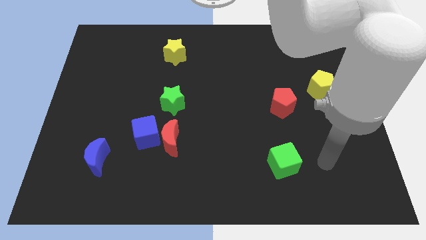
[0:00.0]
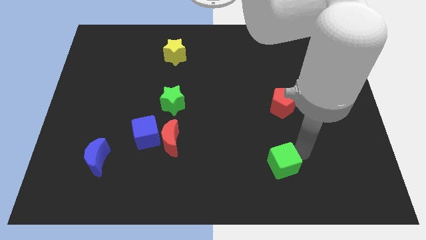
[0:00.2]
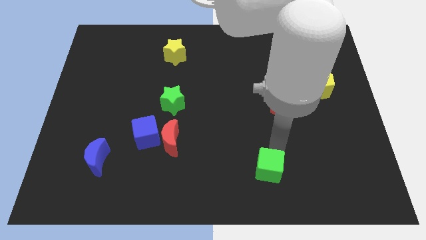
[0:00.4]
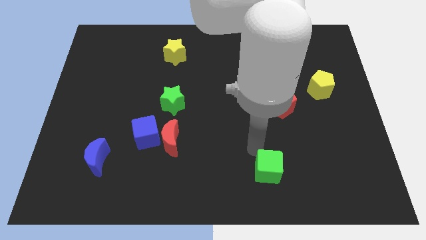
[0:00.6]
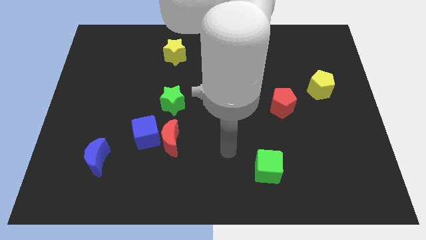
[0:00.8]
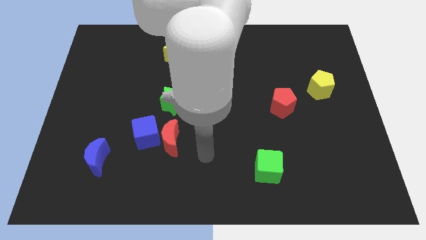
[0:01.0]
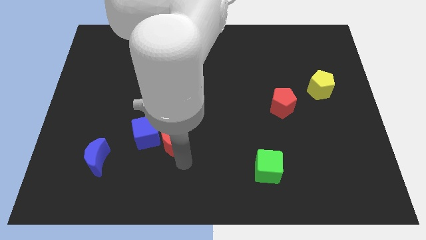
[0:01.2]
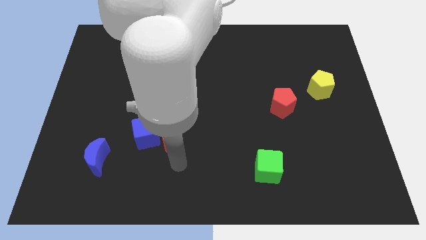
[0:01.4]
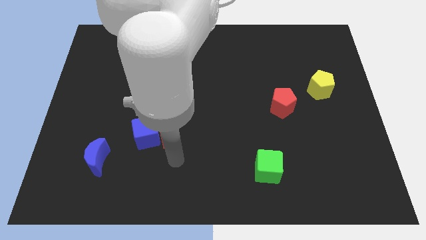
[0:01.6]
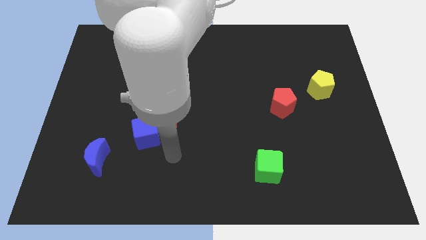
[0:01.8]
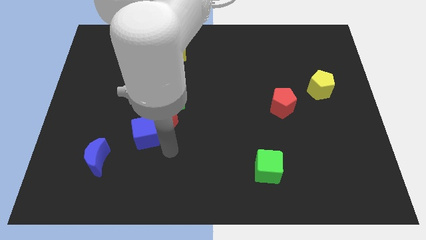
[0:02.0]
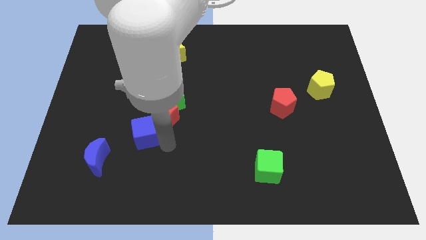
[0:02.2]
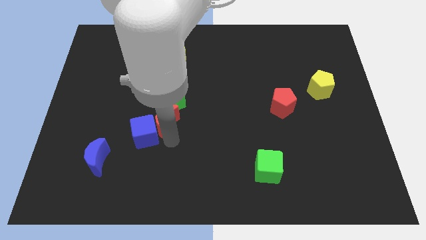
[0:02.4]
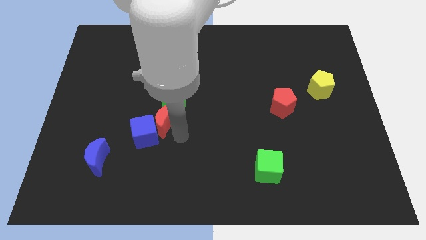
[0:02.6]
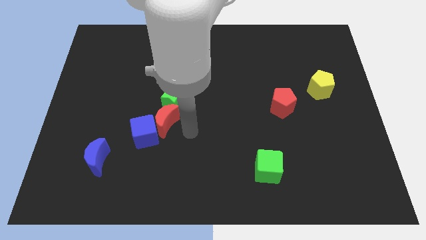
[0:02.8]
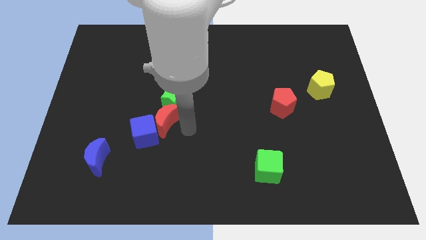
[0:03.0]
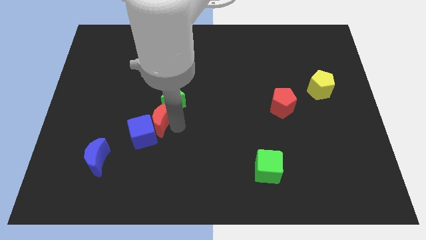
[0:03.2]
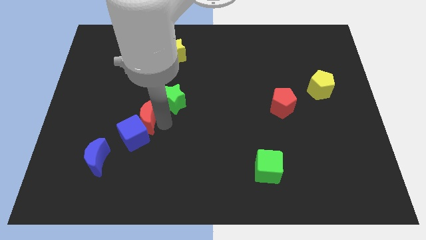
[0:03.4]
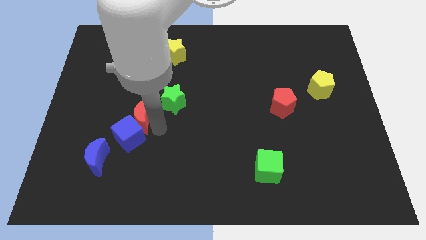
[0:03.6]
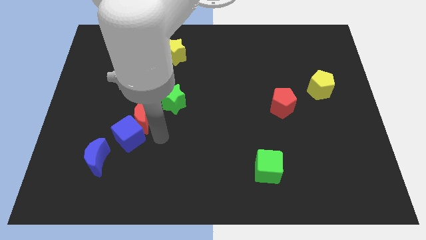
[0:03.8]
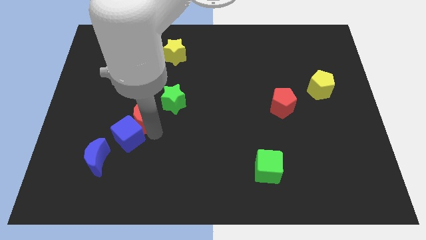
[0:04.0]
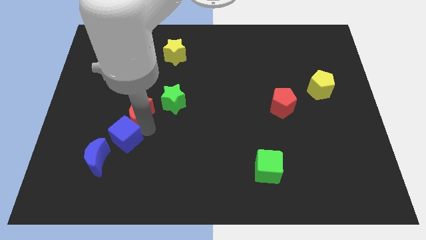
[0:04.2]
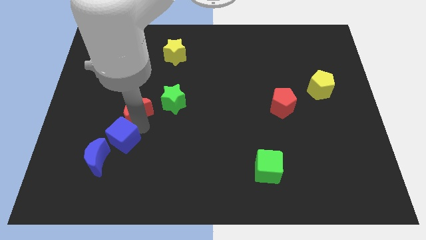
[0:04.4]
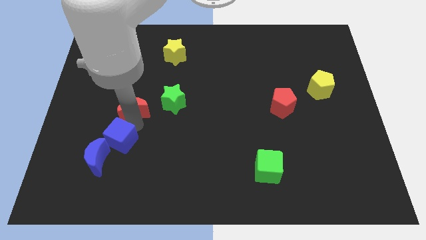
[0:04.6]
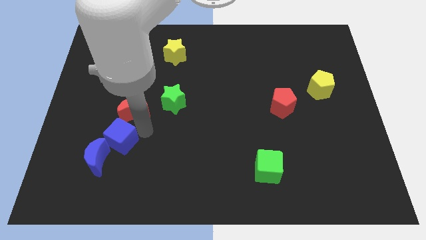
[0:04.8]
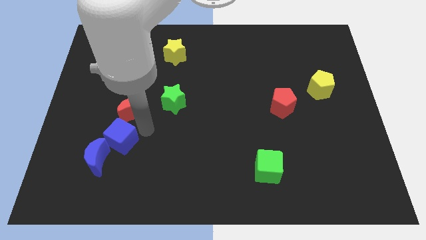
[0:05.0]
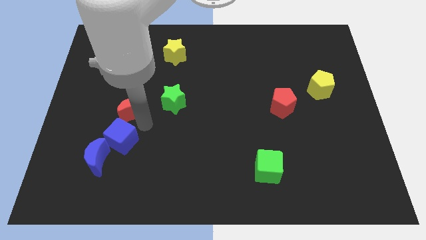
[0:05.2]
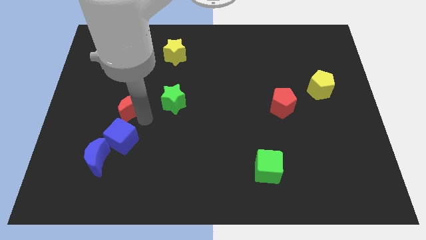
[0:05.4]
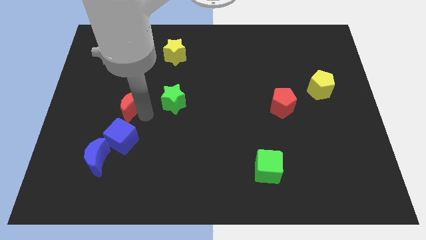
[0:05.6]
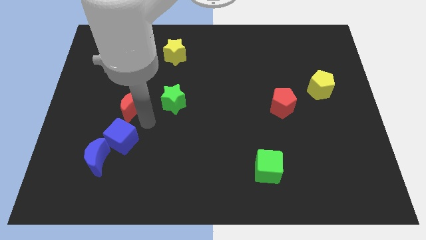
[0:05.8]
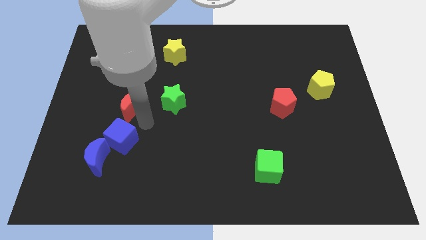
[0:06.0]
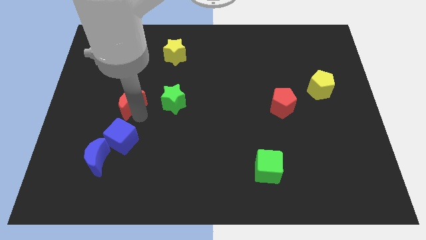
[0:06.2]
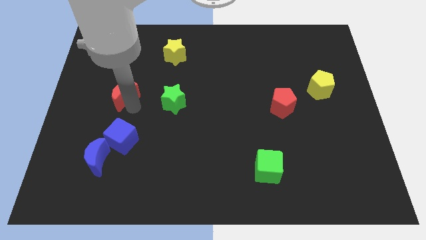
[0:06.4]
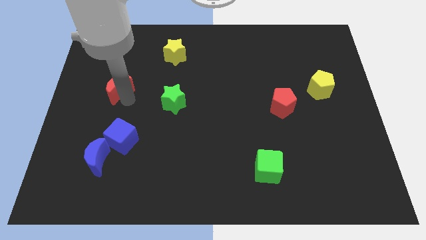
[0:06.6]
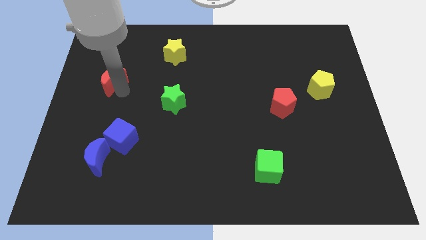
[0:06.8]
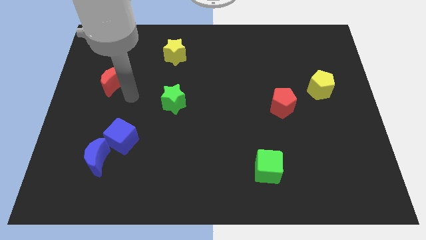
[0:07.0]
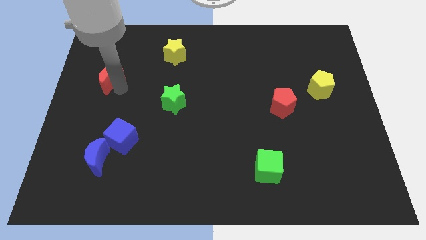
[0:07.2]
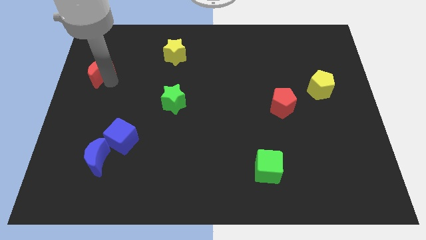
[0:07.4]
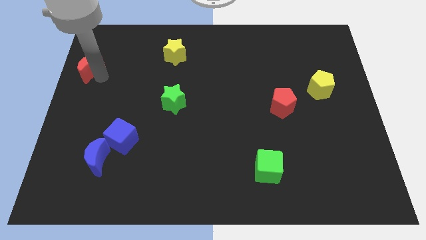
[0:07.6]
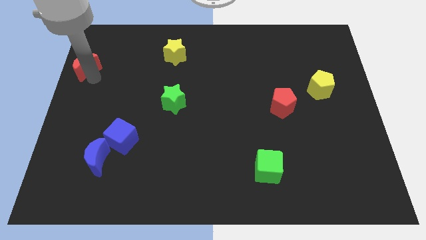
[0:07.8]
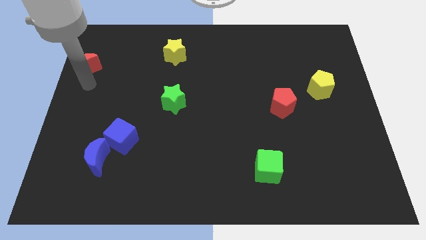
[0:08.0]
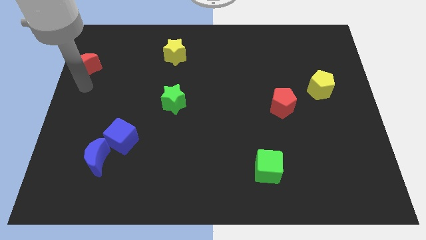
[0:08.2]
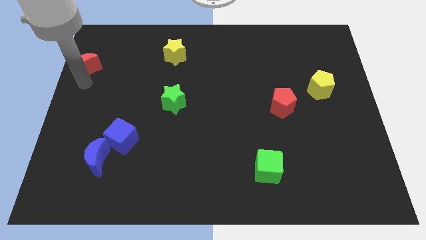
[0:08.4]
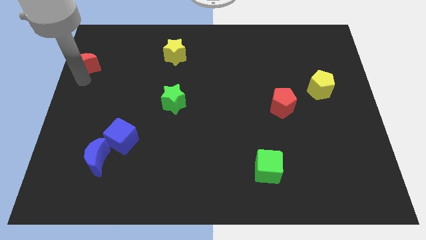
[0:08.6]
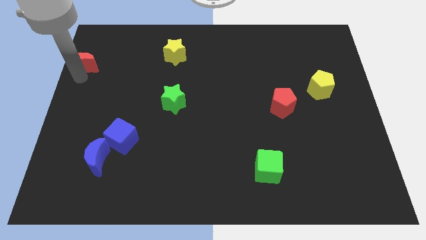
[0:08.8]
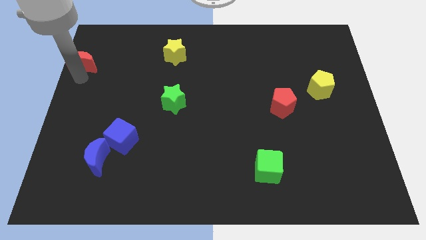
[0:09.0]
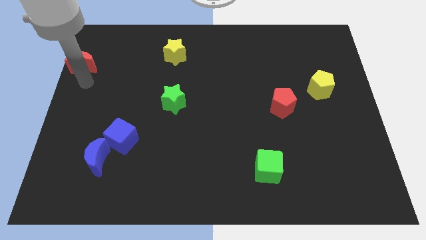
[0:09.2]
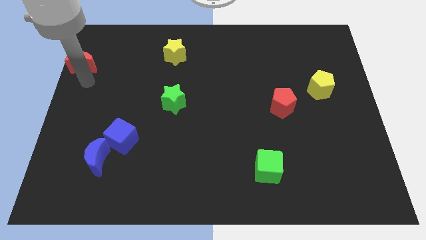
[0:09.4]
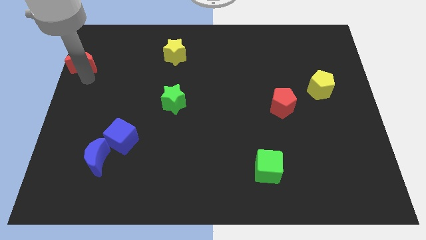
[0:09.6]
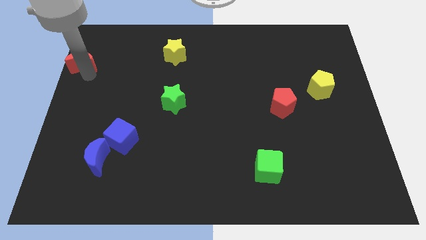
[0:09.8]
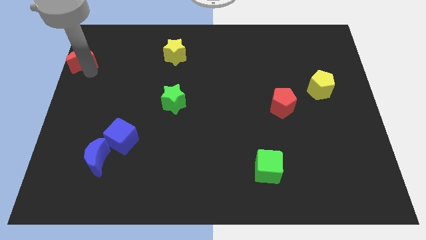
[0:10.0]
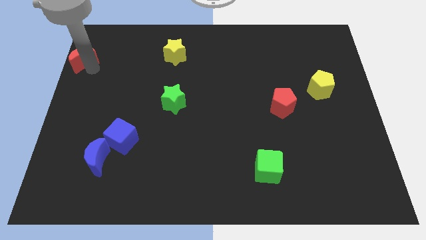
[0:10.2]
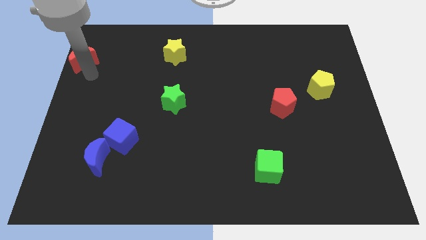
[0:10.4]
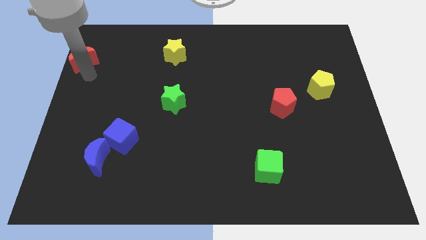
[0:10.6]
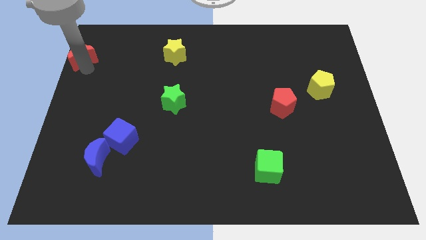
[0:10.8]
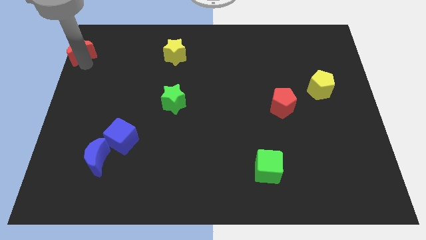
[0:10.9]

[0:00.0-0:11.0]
put the red moon to the top left
